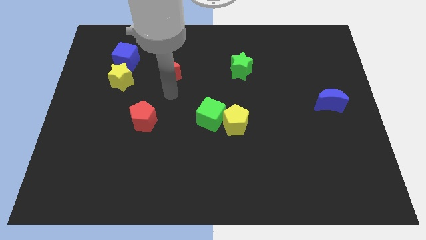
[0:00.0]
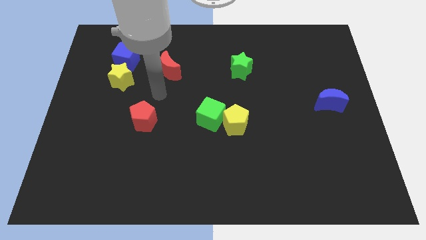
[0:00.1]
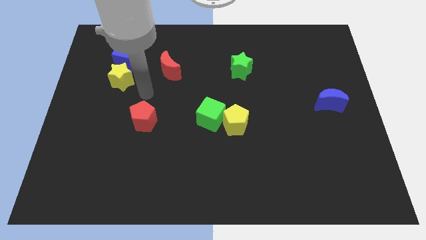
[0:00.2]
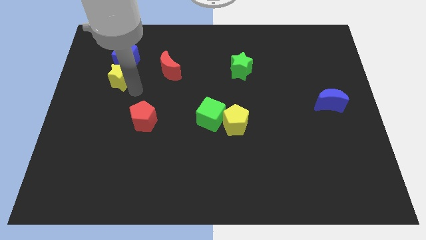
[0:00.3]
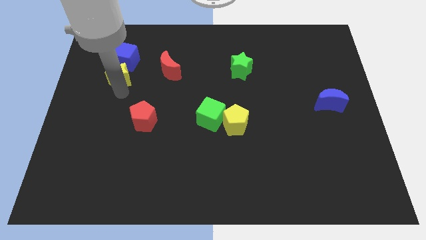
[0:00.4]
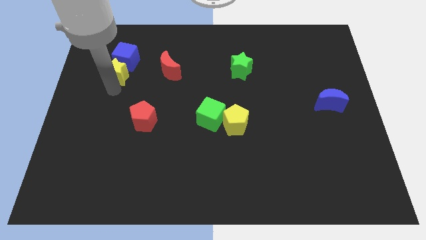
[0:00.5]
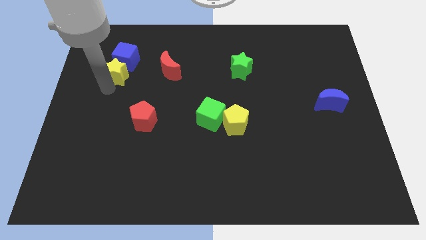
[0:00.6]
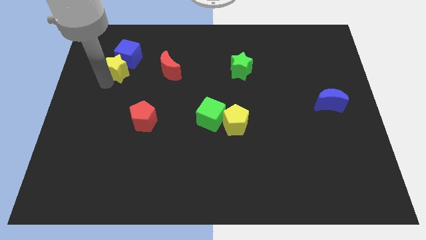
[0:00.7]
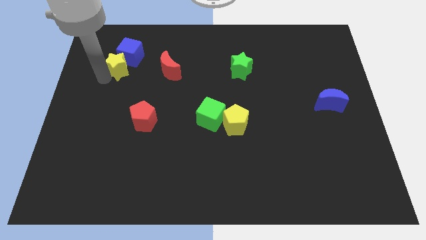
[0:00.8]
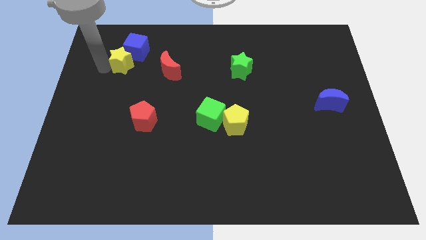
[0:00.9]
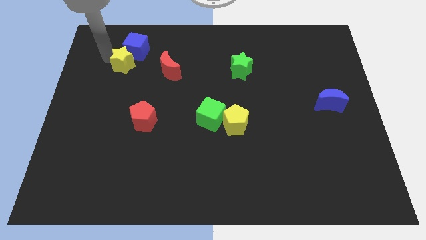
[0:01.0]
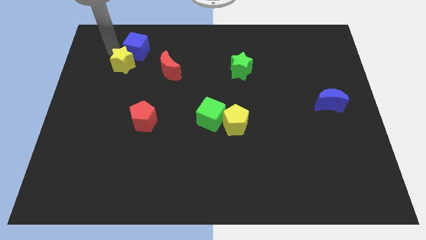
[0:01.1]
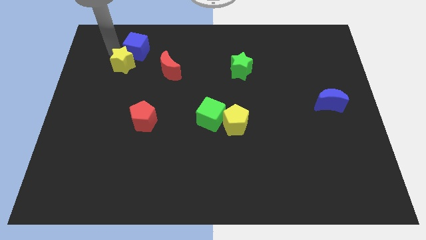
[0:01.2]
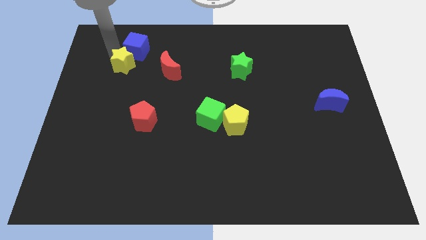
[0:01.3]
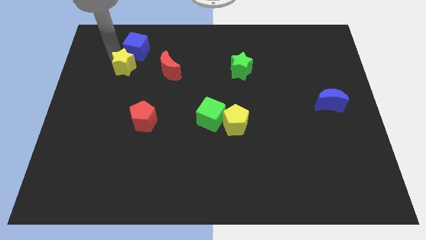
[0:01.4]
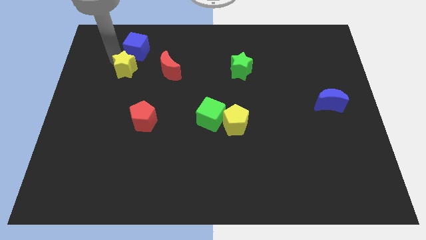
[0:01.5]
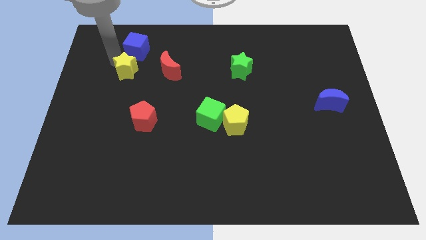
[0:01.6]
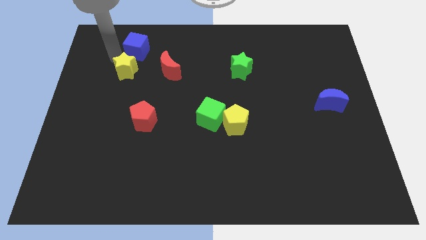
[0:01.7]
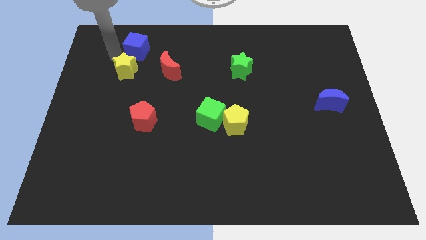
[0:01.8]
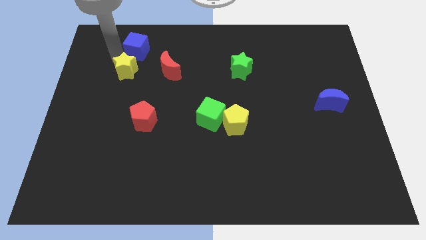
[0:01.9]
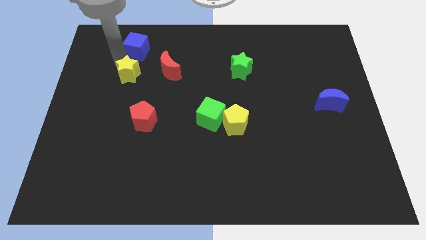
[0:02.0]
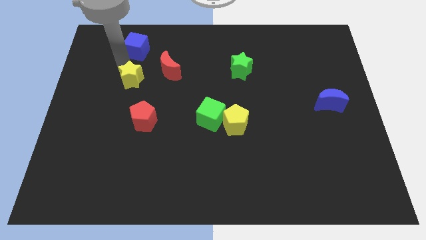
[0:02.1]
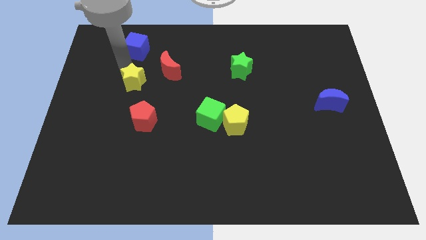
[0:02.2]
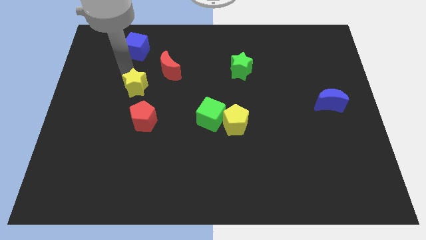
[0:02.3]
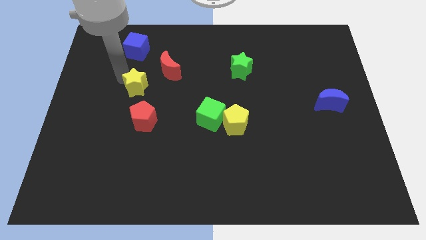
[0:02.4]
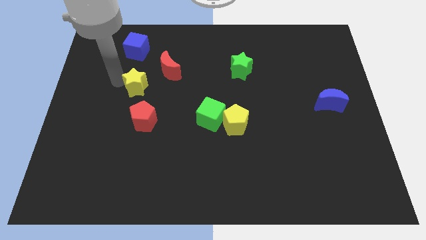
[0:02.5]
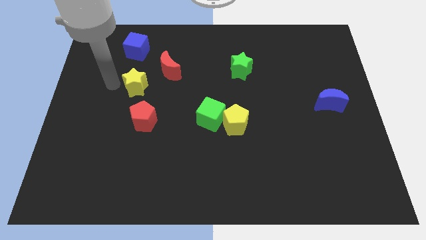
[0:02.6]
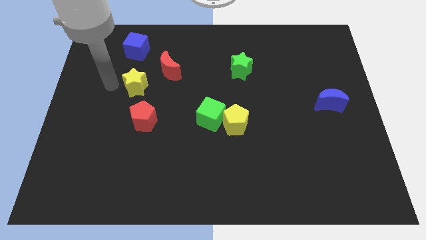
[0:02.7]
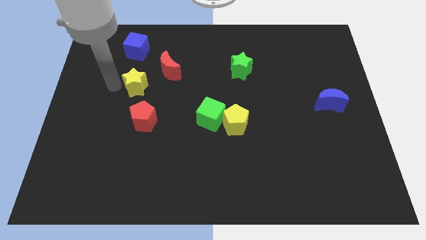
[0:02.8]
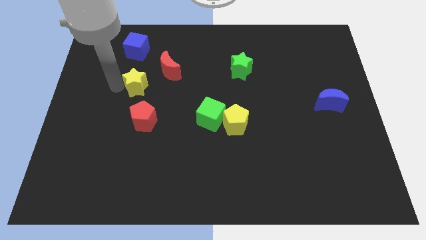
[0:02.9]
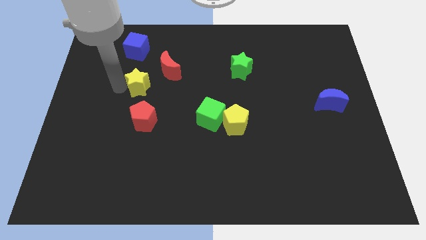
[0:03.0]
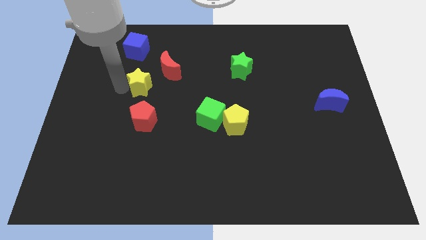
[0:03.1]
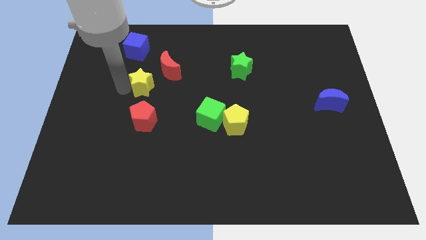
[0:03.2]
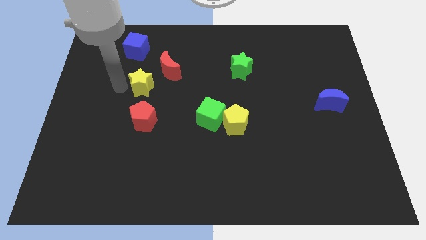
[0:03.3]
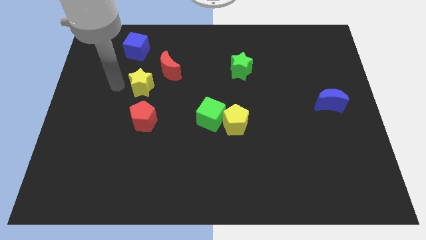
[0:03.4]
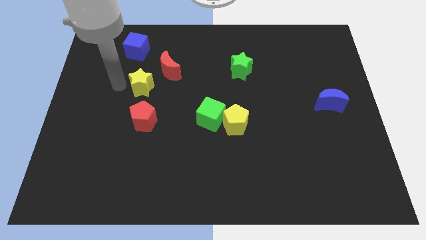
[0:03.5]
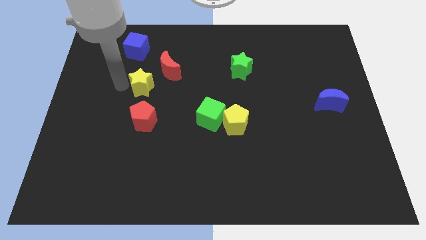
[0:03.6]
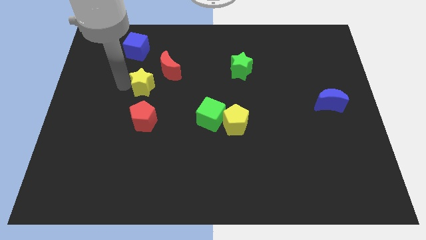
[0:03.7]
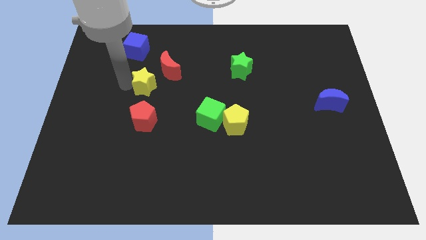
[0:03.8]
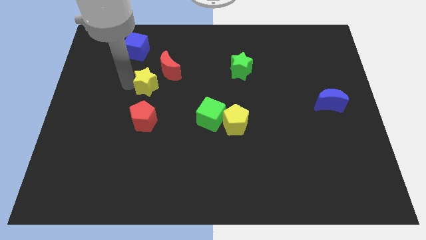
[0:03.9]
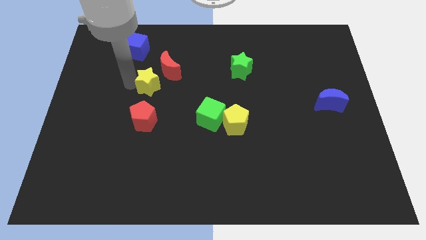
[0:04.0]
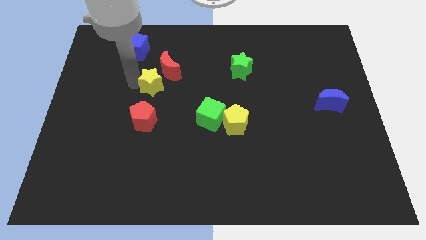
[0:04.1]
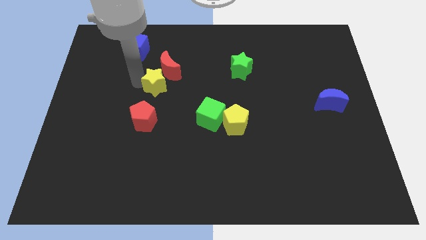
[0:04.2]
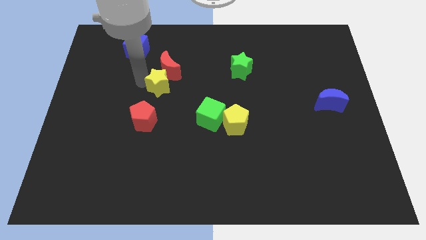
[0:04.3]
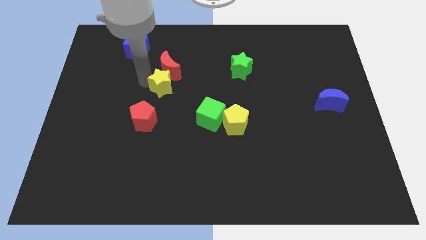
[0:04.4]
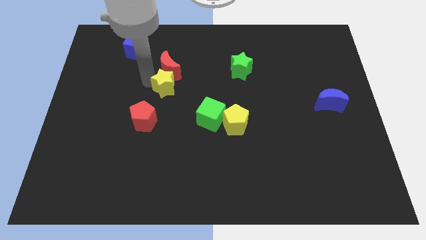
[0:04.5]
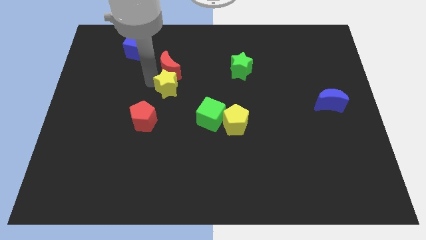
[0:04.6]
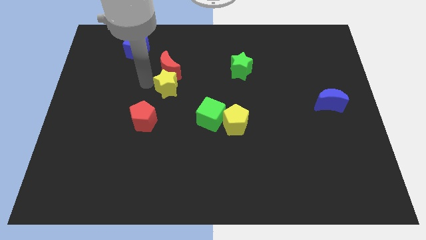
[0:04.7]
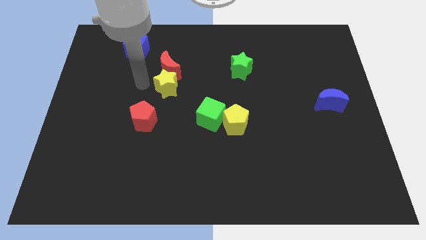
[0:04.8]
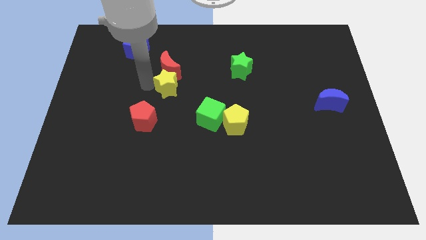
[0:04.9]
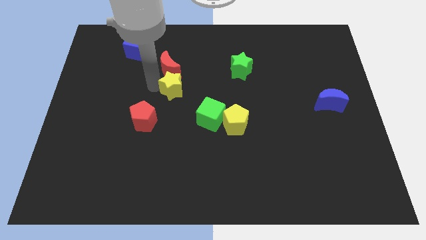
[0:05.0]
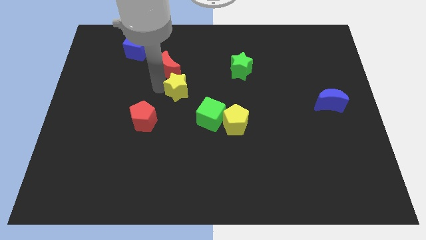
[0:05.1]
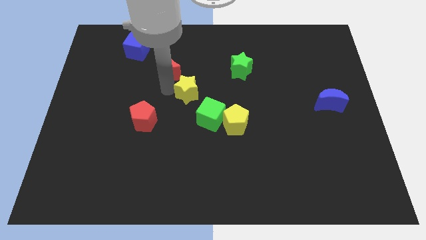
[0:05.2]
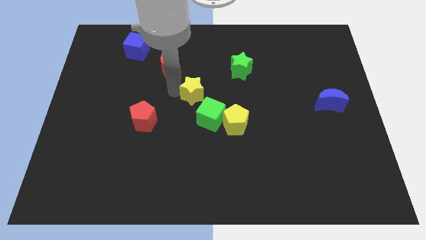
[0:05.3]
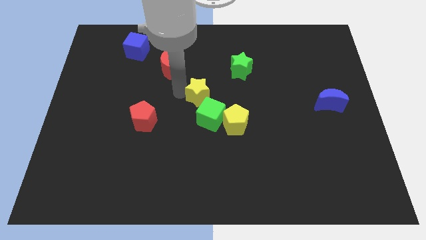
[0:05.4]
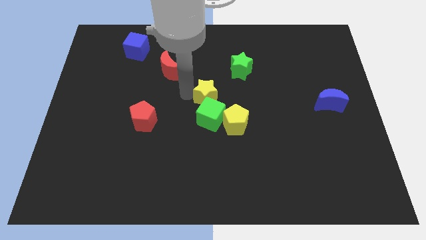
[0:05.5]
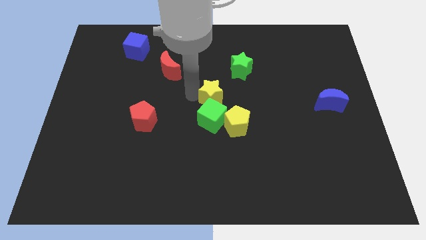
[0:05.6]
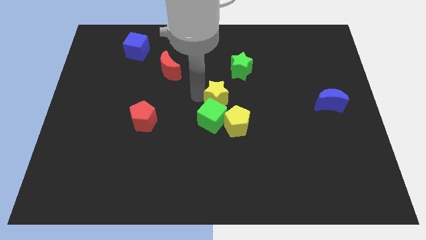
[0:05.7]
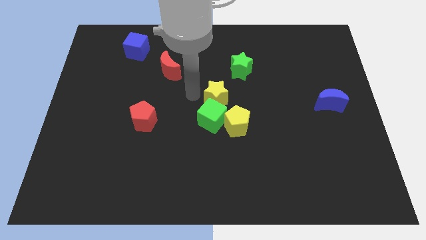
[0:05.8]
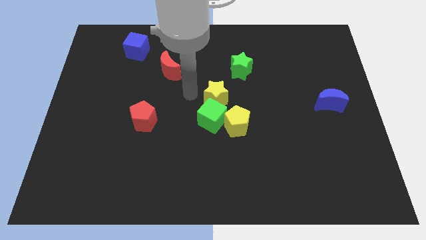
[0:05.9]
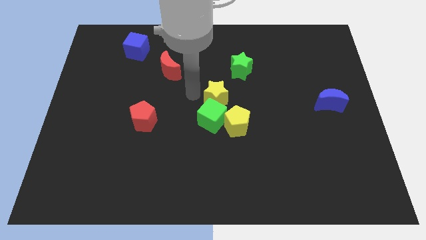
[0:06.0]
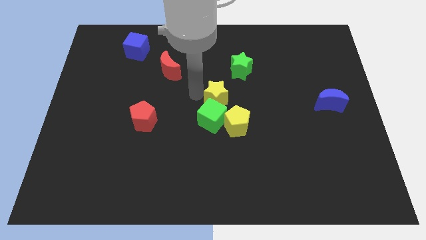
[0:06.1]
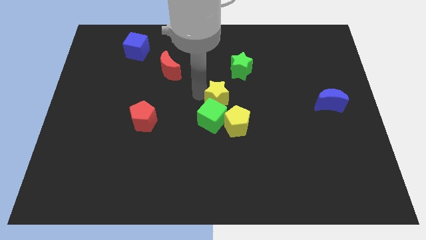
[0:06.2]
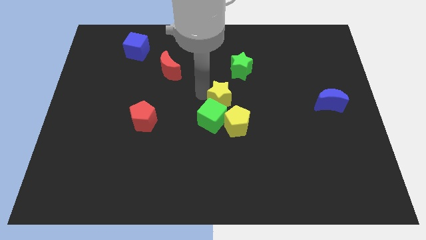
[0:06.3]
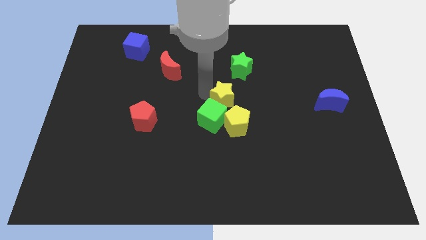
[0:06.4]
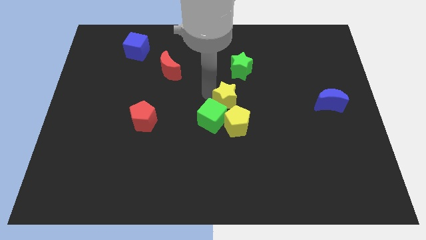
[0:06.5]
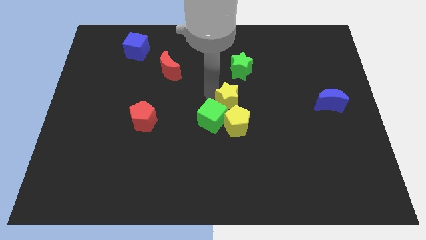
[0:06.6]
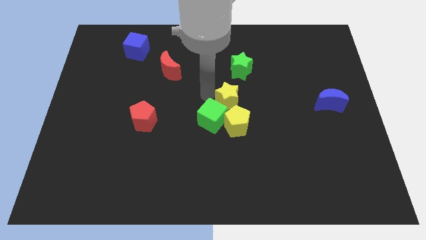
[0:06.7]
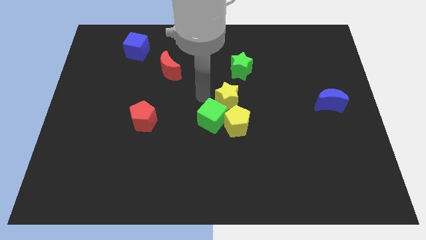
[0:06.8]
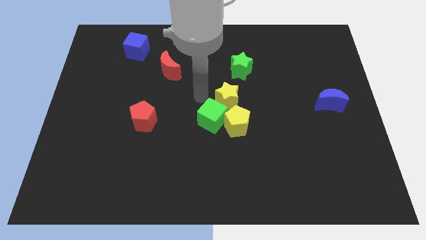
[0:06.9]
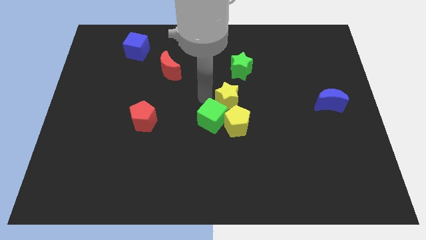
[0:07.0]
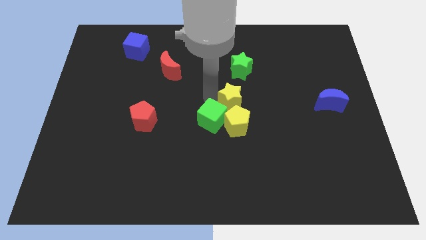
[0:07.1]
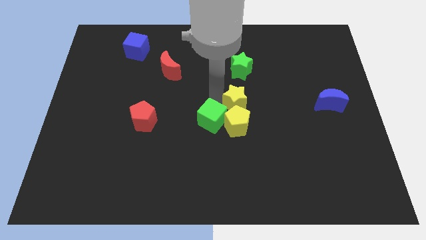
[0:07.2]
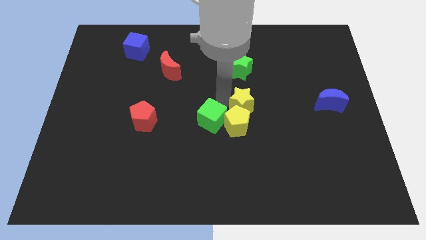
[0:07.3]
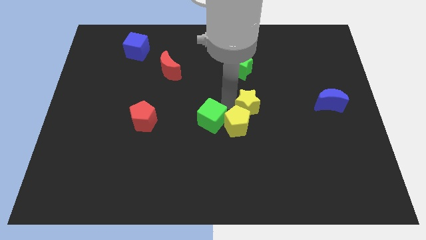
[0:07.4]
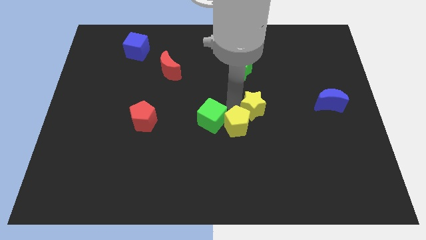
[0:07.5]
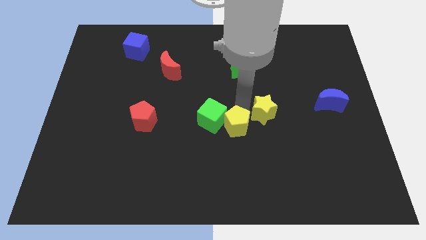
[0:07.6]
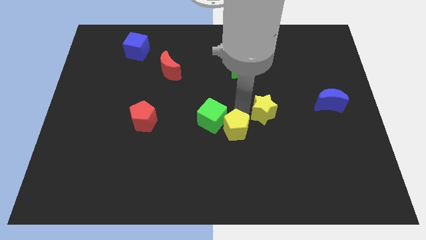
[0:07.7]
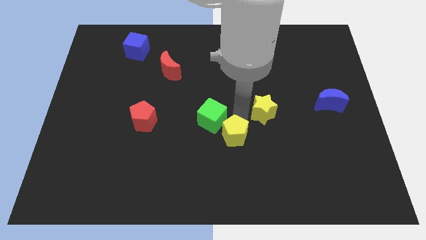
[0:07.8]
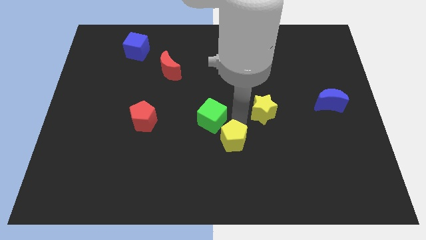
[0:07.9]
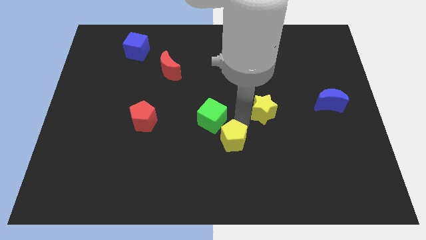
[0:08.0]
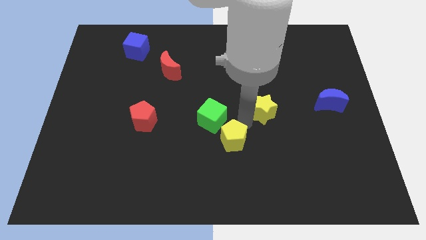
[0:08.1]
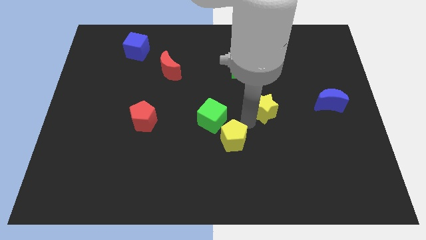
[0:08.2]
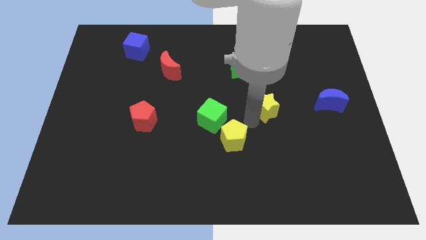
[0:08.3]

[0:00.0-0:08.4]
slide the yellow star to the left of the blue moon
